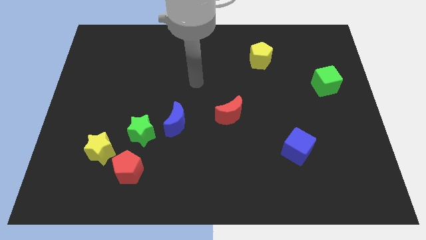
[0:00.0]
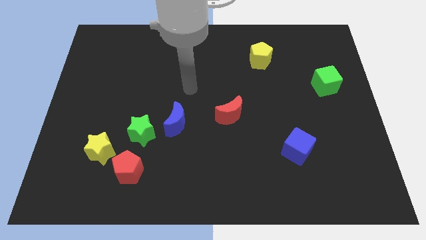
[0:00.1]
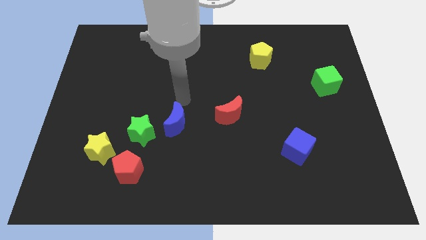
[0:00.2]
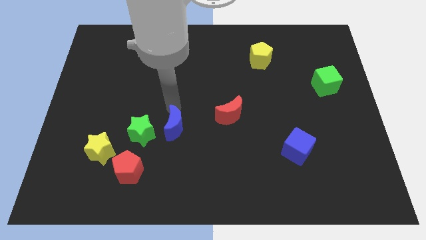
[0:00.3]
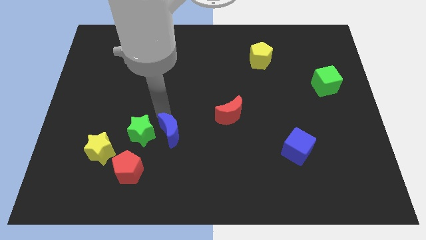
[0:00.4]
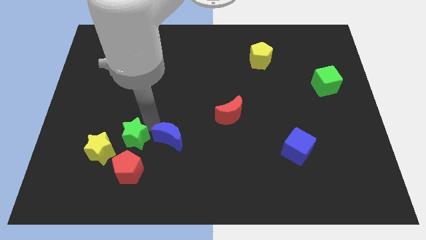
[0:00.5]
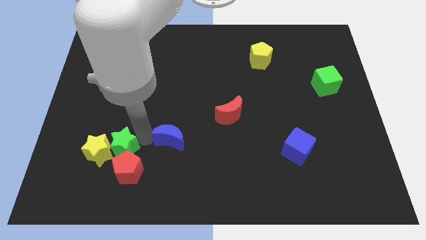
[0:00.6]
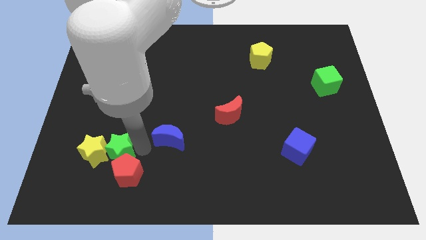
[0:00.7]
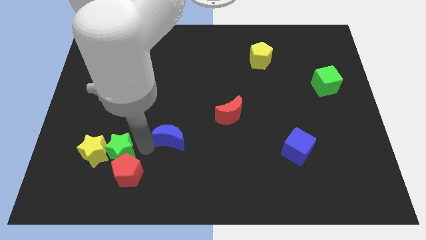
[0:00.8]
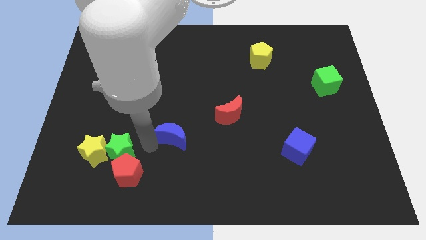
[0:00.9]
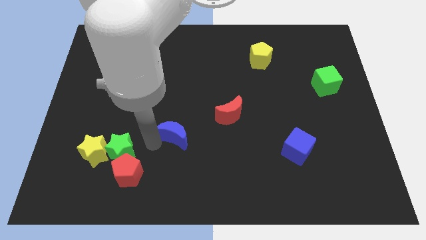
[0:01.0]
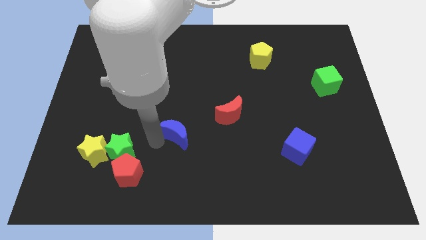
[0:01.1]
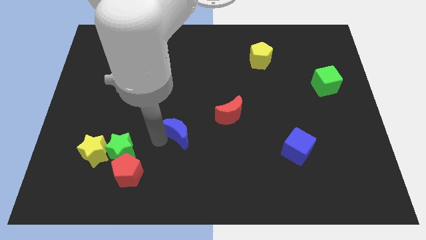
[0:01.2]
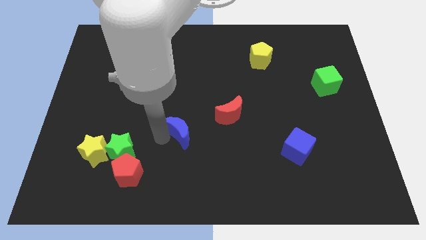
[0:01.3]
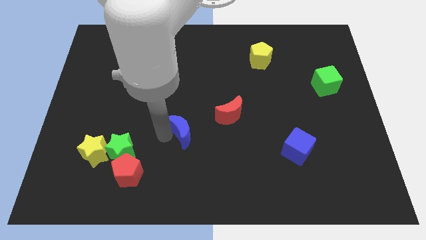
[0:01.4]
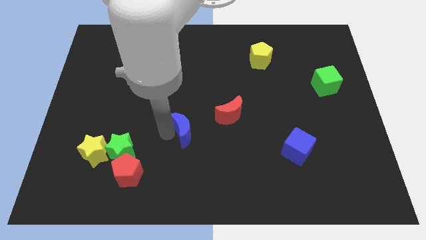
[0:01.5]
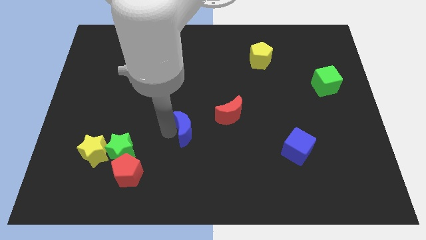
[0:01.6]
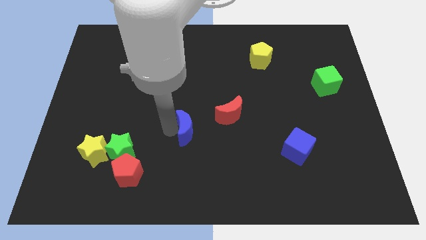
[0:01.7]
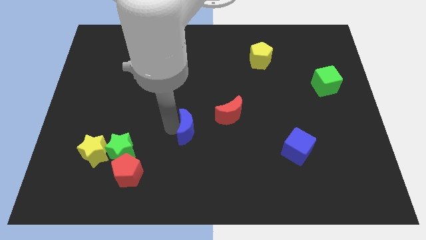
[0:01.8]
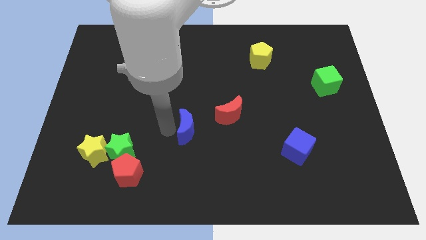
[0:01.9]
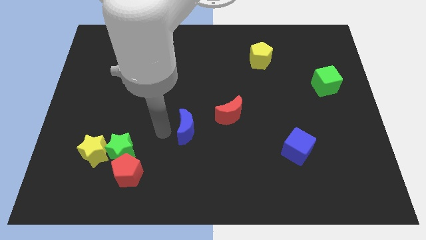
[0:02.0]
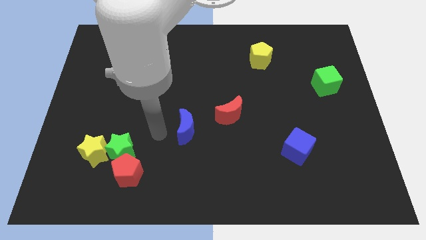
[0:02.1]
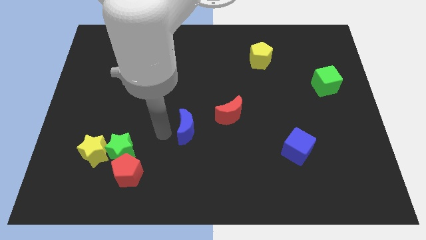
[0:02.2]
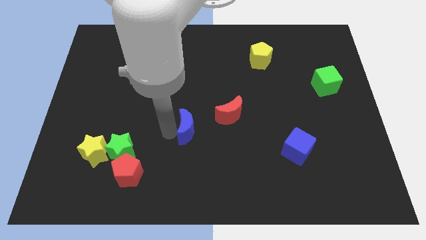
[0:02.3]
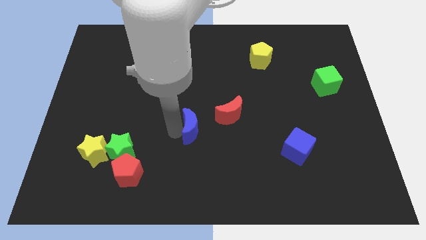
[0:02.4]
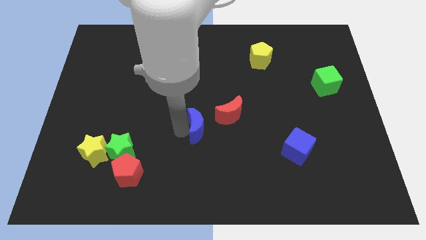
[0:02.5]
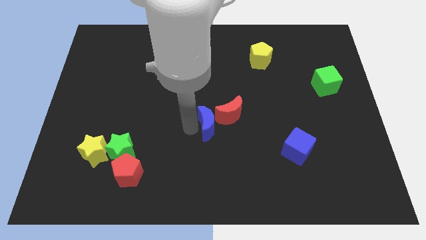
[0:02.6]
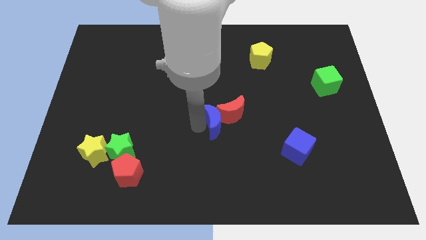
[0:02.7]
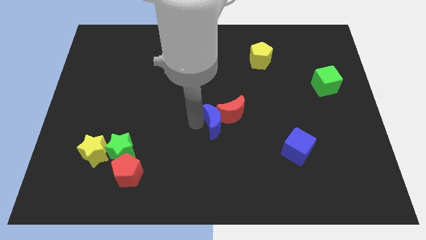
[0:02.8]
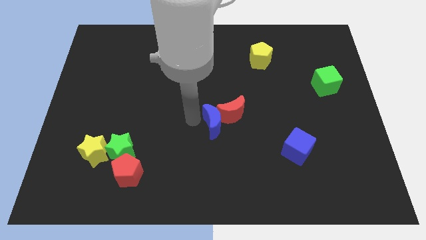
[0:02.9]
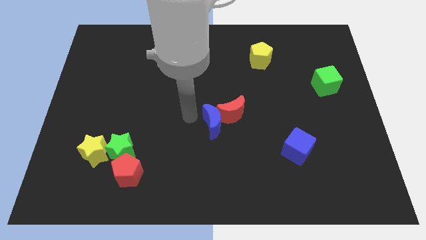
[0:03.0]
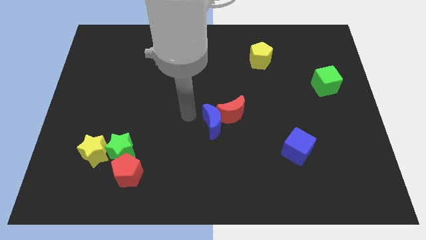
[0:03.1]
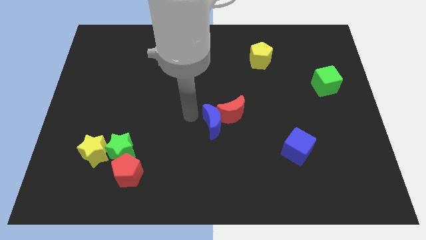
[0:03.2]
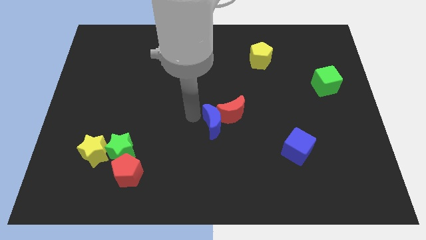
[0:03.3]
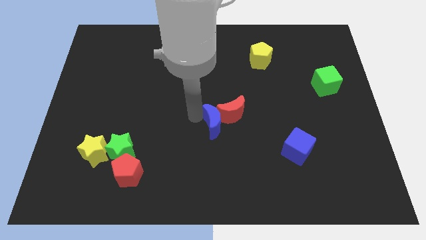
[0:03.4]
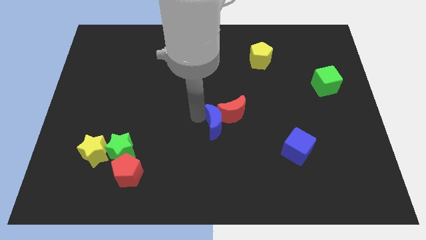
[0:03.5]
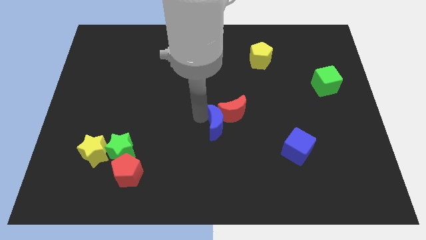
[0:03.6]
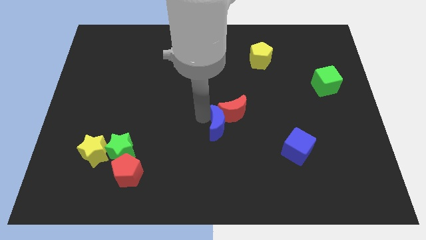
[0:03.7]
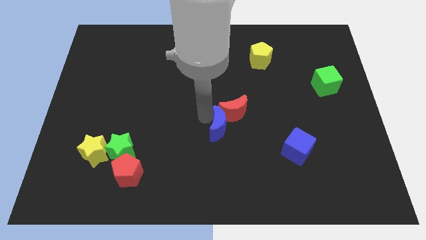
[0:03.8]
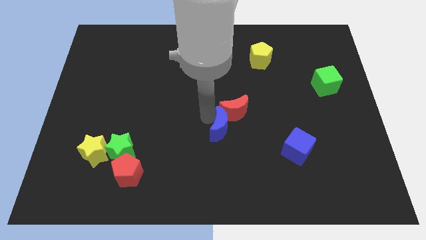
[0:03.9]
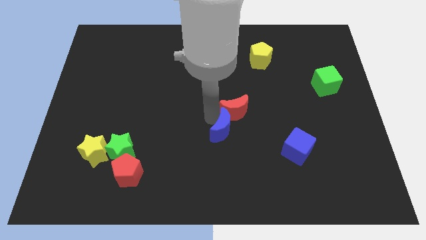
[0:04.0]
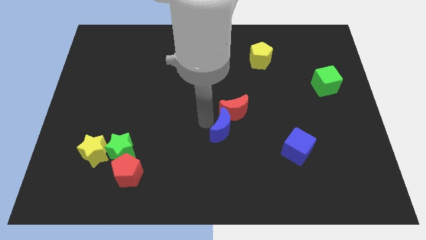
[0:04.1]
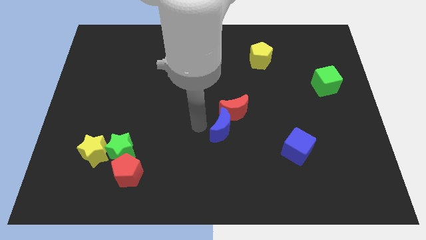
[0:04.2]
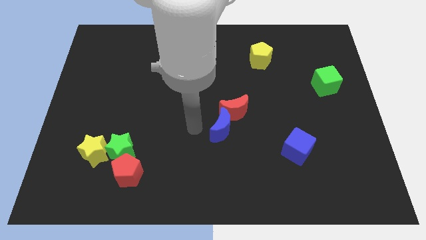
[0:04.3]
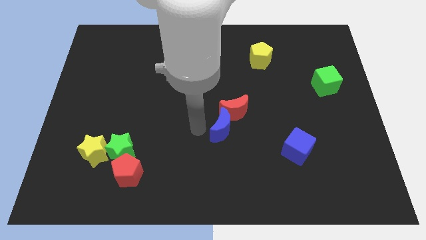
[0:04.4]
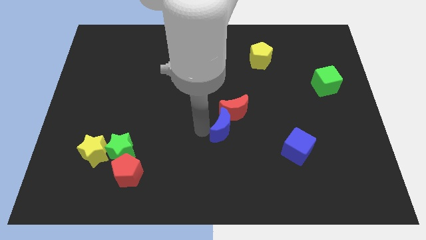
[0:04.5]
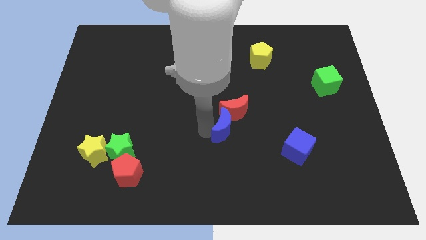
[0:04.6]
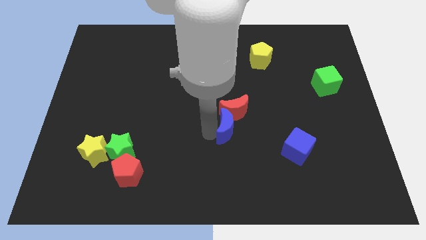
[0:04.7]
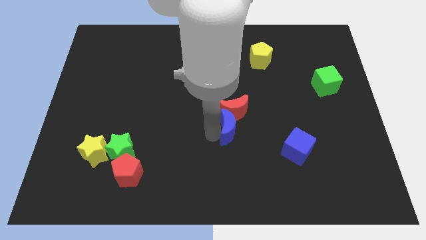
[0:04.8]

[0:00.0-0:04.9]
put the blue moon to the bottom right side of the red moon

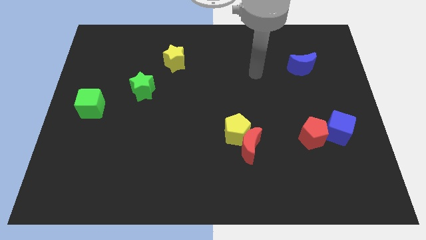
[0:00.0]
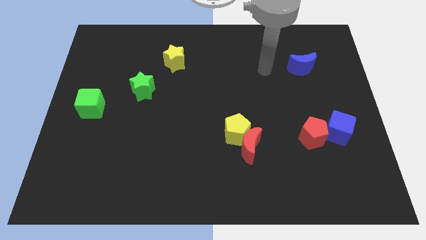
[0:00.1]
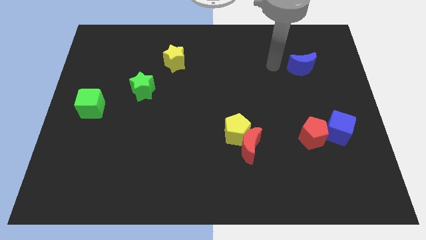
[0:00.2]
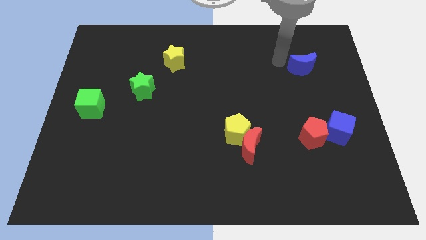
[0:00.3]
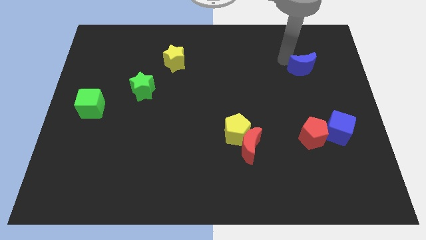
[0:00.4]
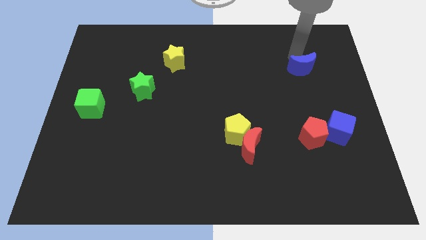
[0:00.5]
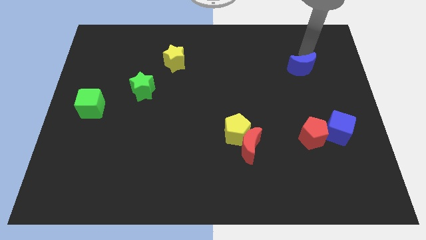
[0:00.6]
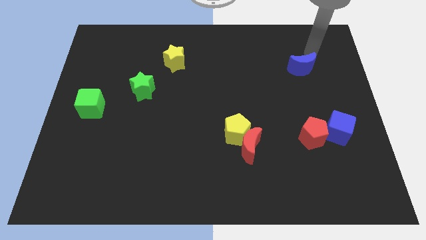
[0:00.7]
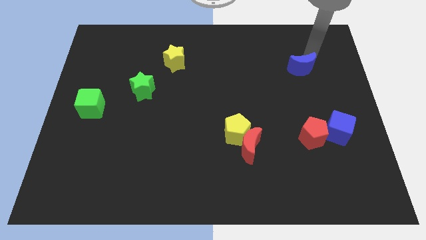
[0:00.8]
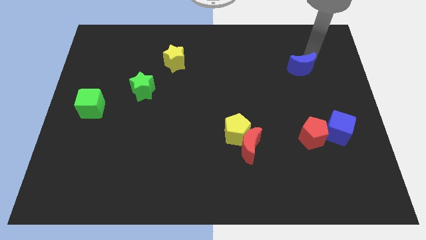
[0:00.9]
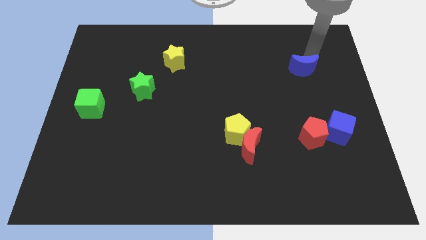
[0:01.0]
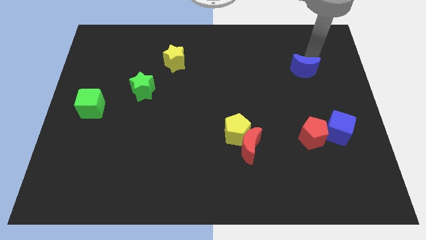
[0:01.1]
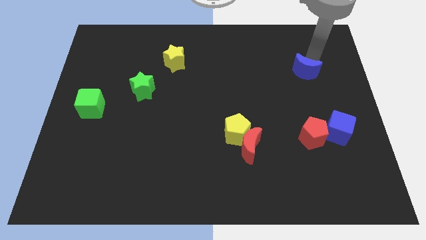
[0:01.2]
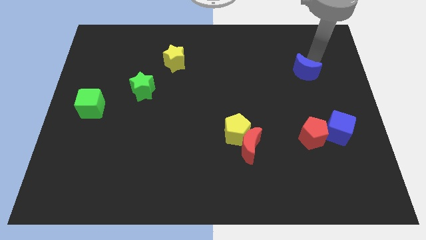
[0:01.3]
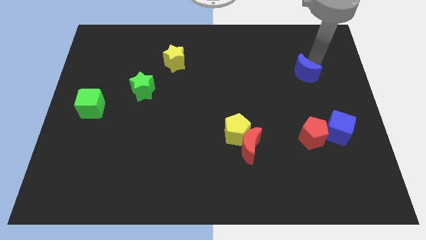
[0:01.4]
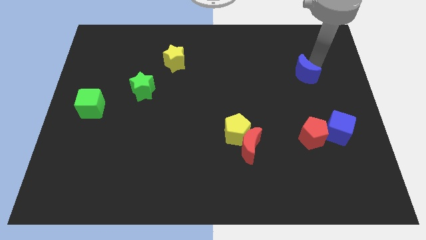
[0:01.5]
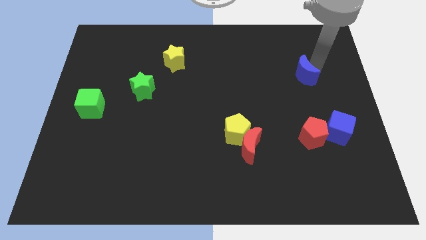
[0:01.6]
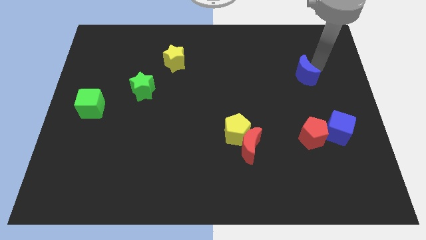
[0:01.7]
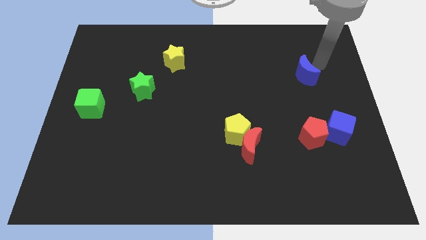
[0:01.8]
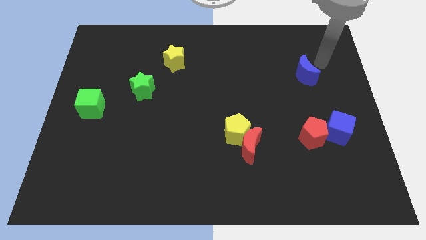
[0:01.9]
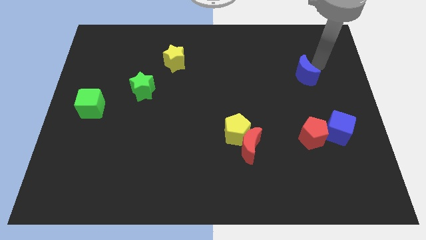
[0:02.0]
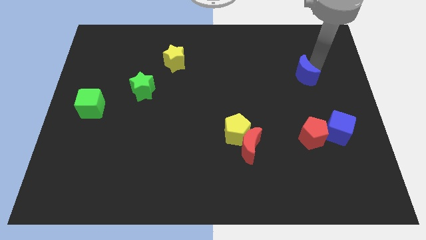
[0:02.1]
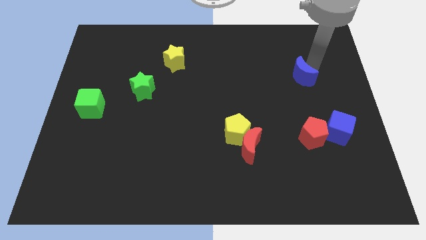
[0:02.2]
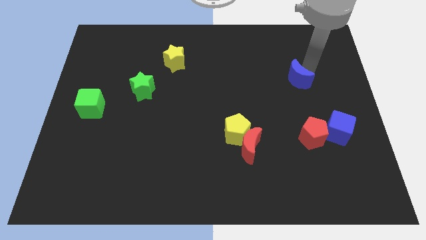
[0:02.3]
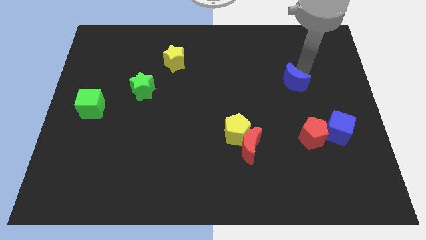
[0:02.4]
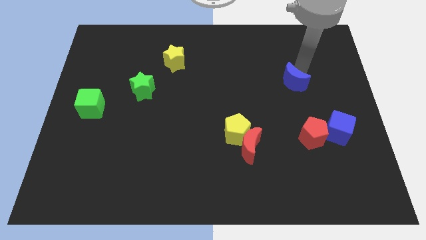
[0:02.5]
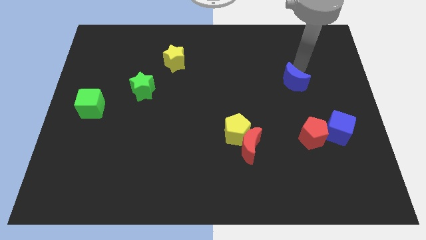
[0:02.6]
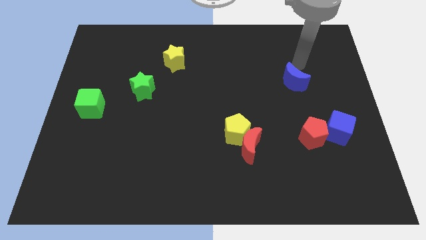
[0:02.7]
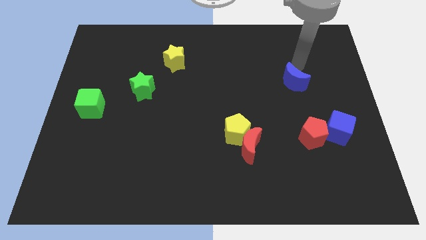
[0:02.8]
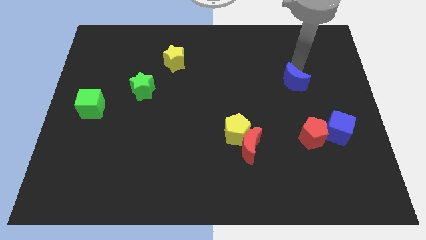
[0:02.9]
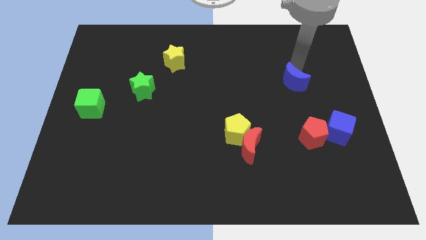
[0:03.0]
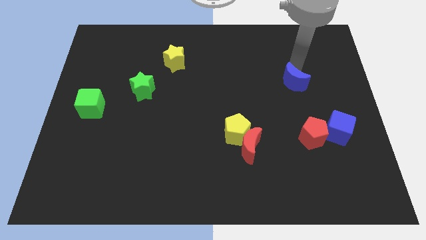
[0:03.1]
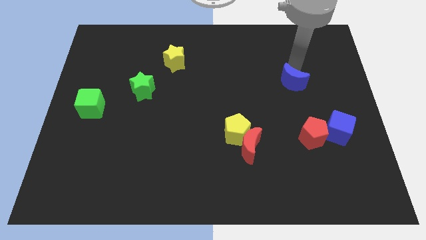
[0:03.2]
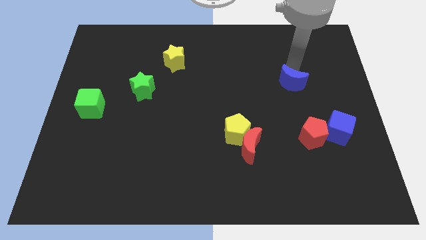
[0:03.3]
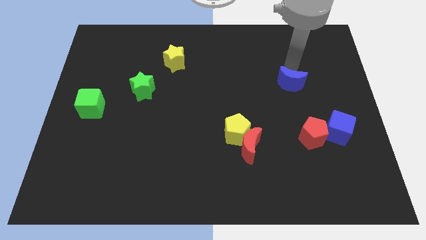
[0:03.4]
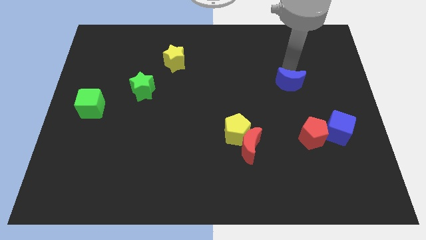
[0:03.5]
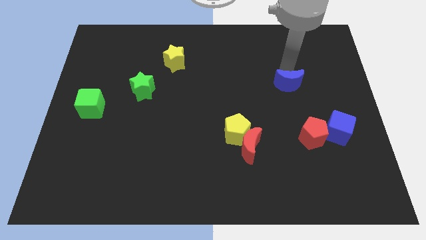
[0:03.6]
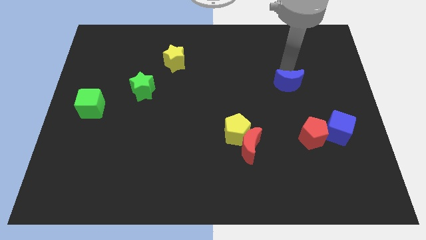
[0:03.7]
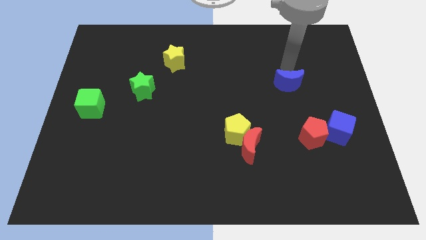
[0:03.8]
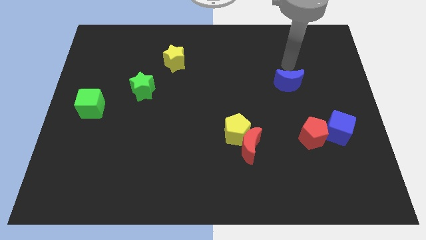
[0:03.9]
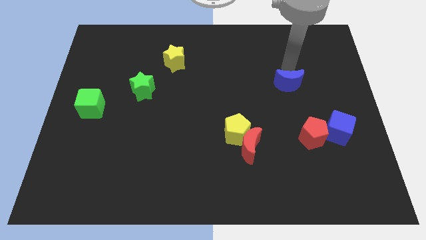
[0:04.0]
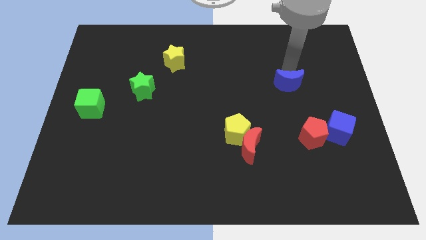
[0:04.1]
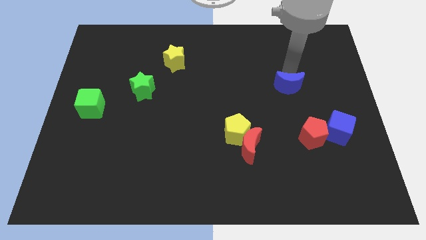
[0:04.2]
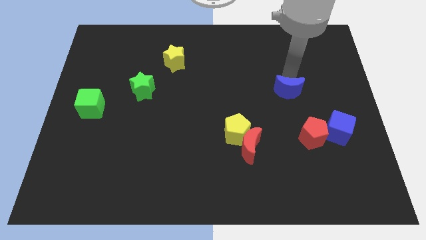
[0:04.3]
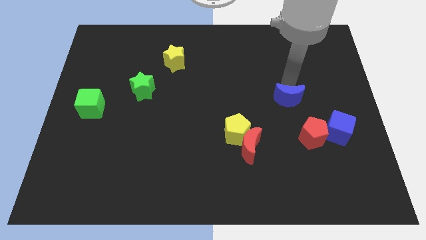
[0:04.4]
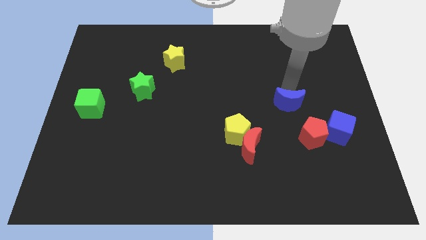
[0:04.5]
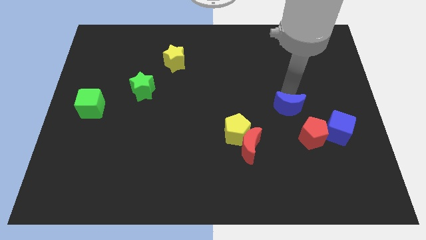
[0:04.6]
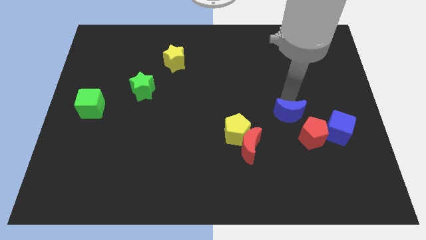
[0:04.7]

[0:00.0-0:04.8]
move the blue moon to the left of the blue cube
